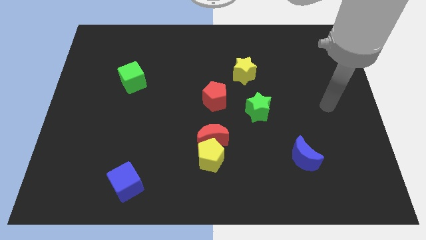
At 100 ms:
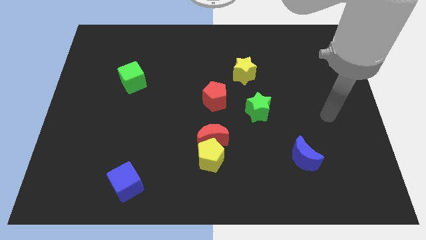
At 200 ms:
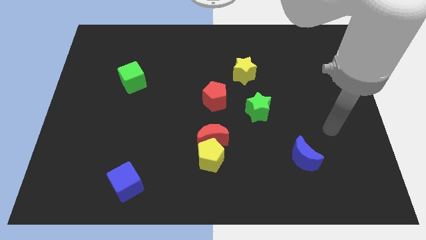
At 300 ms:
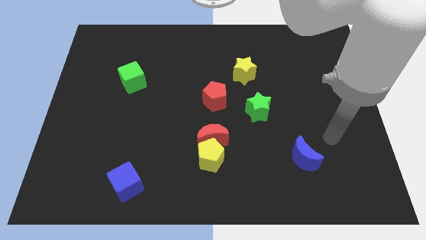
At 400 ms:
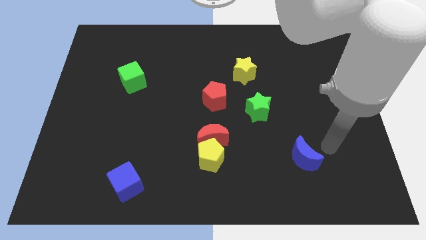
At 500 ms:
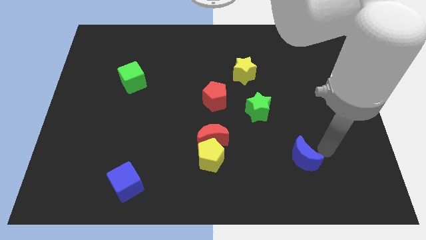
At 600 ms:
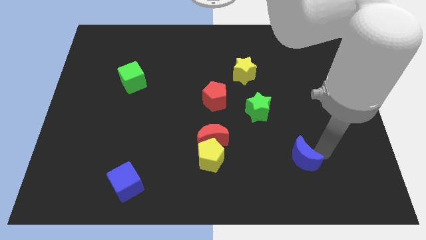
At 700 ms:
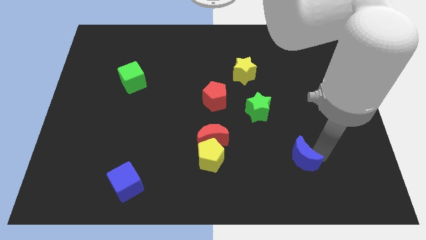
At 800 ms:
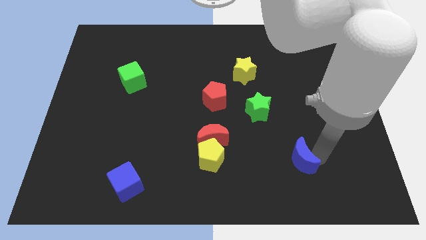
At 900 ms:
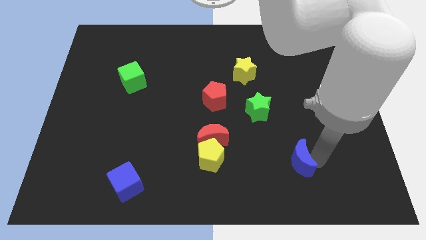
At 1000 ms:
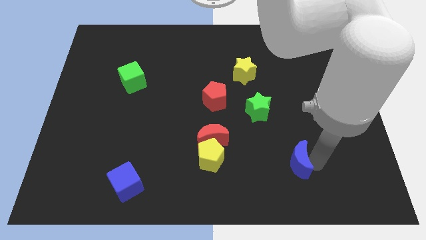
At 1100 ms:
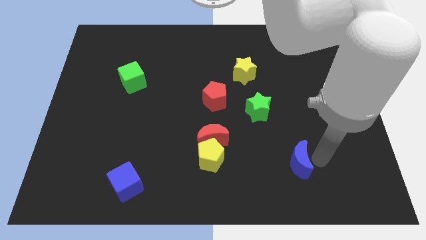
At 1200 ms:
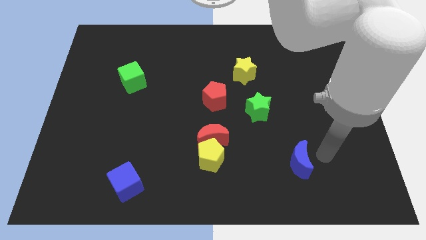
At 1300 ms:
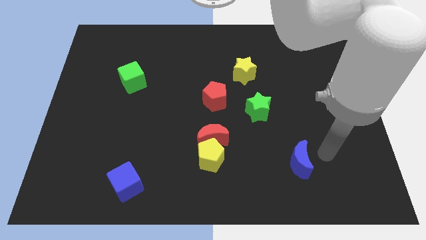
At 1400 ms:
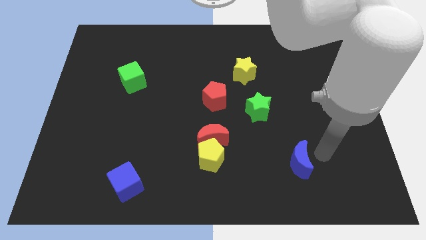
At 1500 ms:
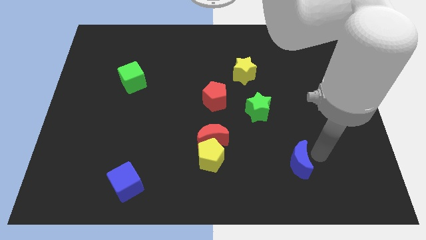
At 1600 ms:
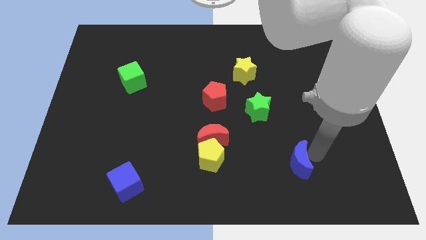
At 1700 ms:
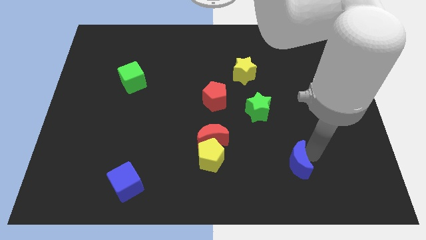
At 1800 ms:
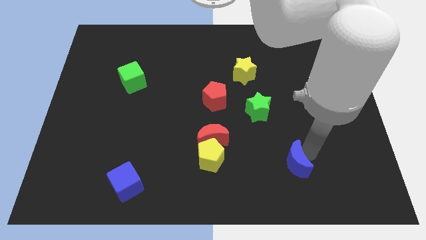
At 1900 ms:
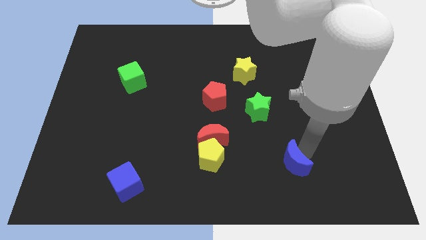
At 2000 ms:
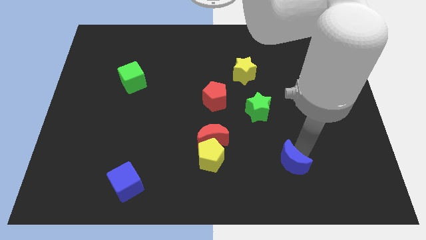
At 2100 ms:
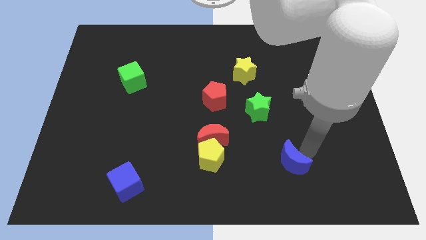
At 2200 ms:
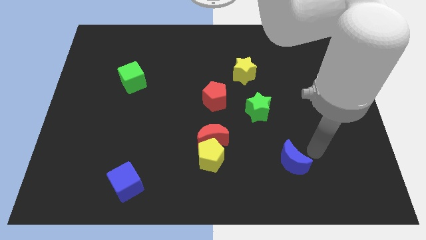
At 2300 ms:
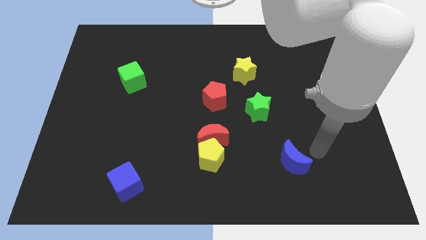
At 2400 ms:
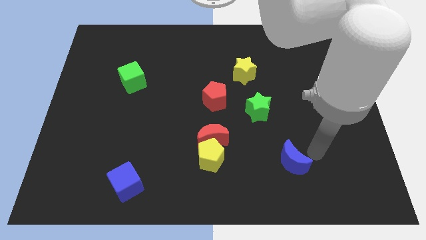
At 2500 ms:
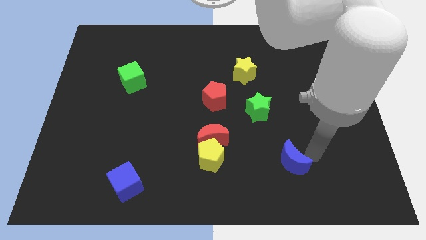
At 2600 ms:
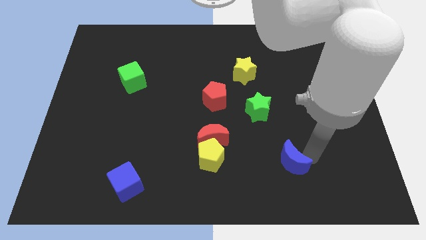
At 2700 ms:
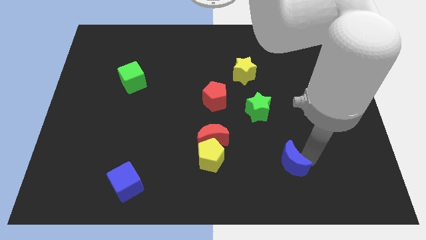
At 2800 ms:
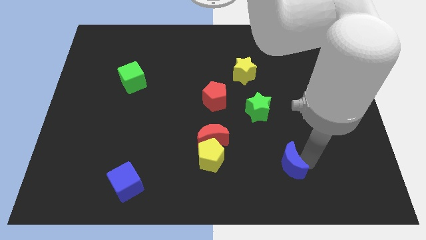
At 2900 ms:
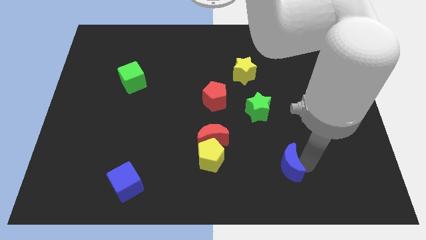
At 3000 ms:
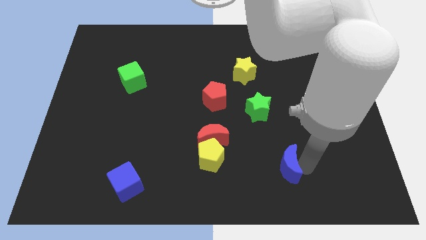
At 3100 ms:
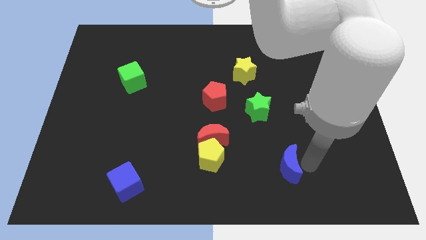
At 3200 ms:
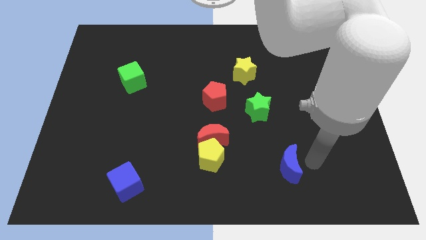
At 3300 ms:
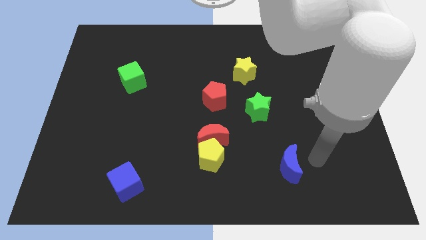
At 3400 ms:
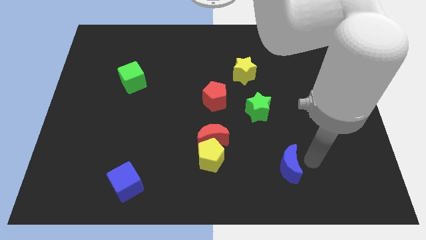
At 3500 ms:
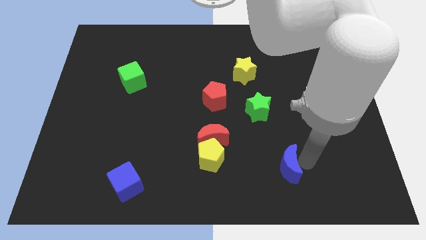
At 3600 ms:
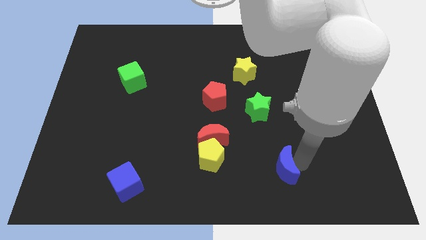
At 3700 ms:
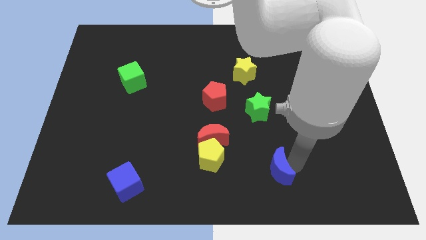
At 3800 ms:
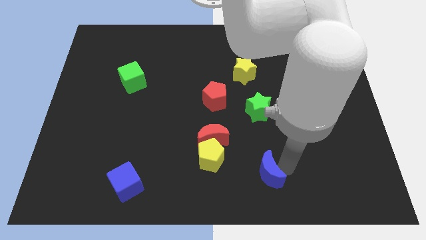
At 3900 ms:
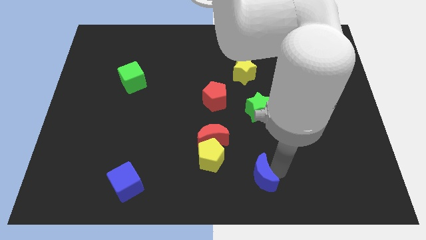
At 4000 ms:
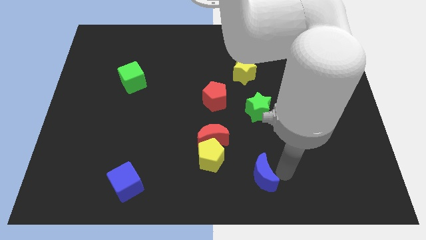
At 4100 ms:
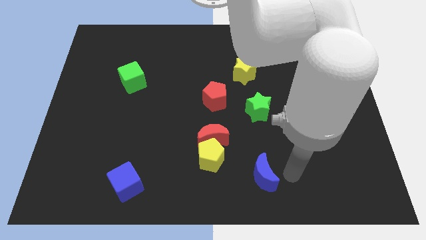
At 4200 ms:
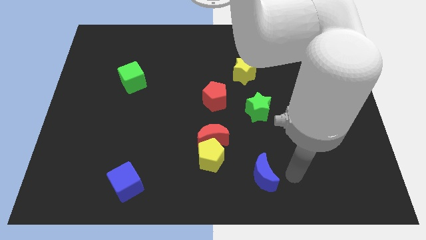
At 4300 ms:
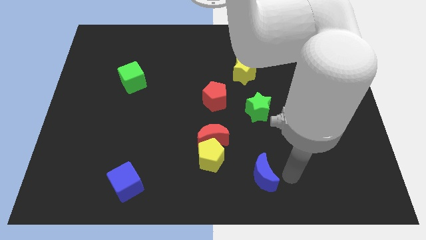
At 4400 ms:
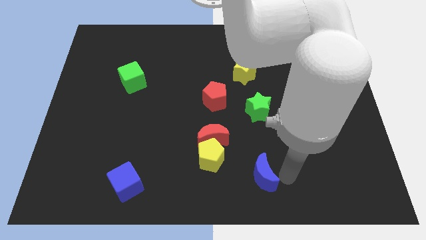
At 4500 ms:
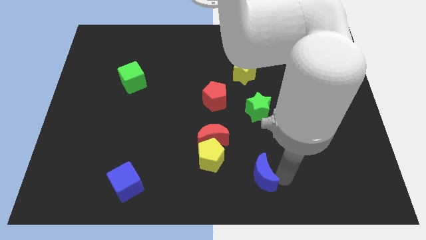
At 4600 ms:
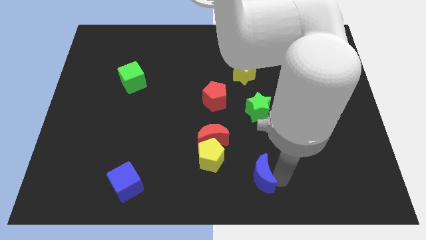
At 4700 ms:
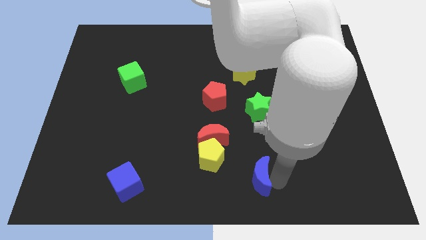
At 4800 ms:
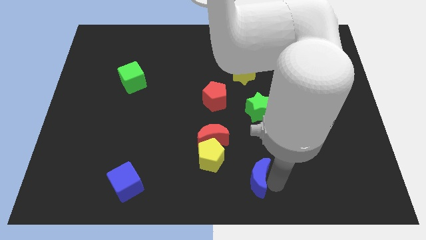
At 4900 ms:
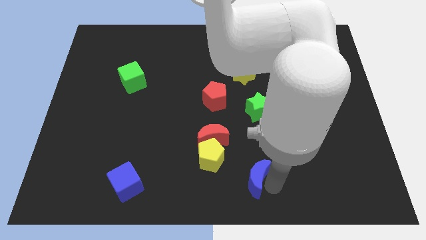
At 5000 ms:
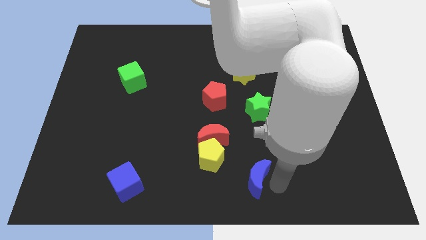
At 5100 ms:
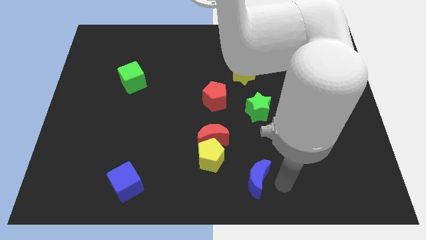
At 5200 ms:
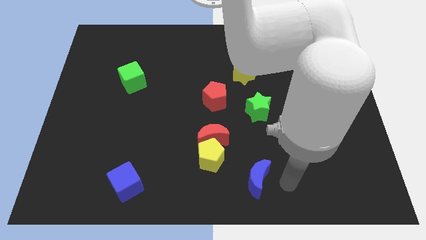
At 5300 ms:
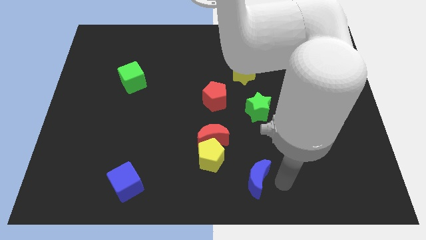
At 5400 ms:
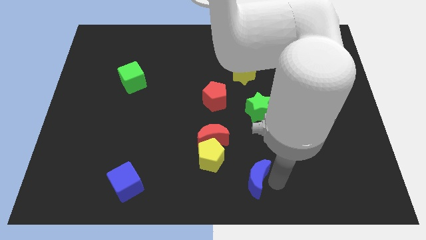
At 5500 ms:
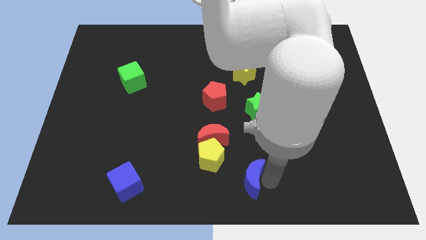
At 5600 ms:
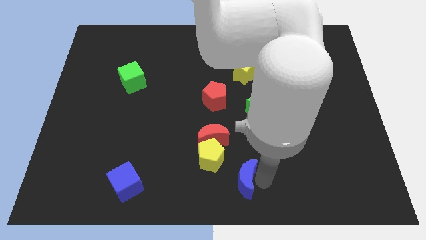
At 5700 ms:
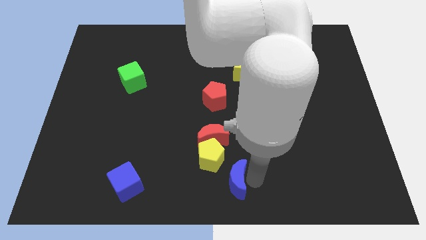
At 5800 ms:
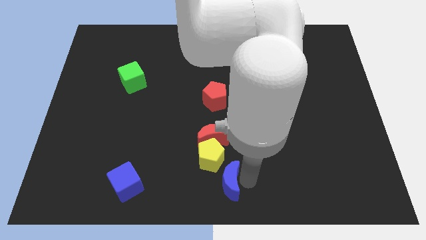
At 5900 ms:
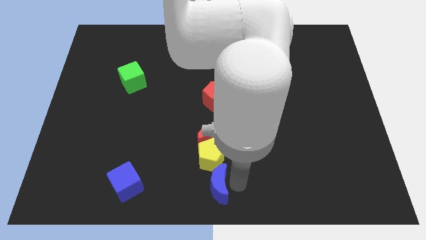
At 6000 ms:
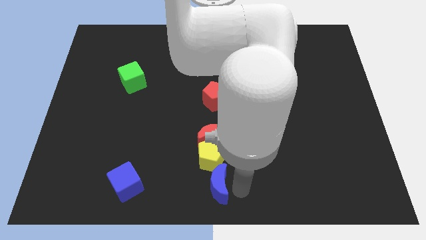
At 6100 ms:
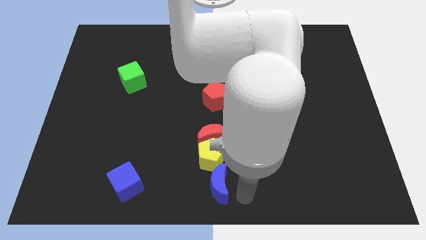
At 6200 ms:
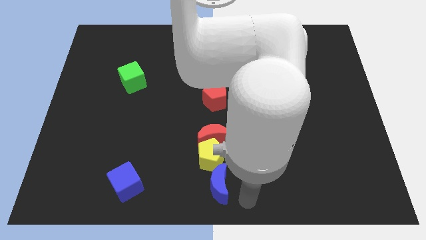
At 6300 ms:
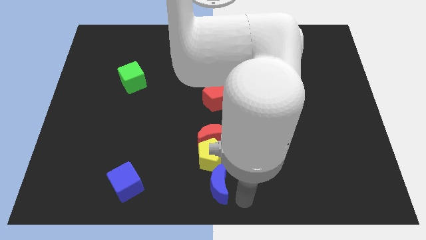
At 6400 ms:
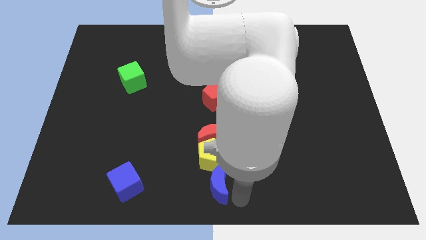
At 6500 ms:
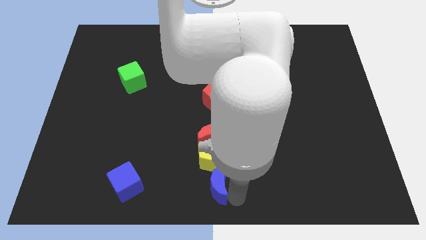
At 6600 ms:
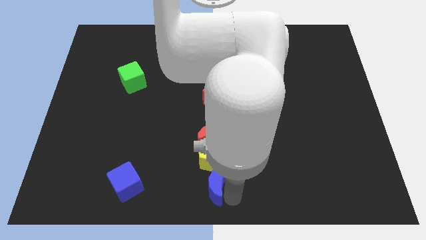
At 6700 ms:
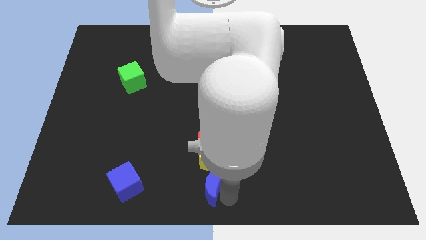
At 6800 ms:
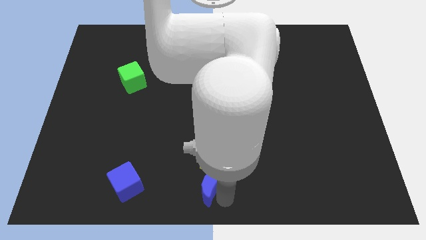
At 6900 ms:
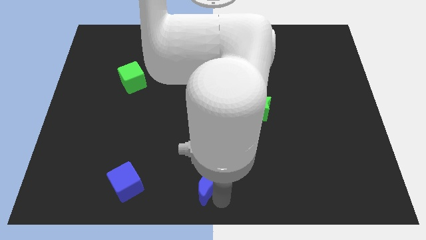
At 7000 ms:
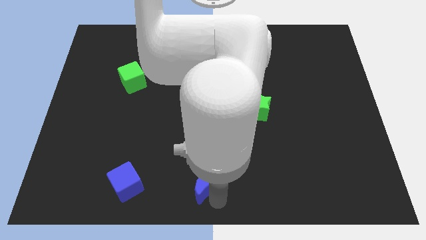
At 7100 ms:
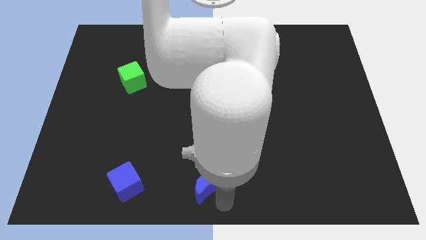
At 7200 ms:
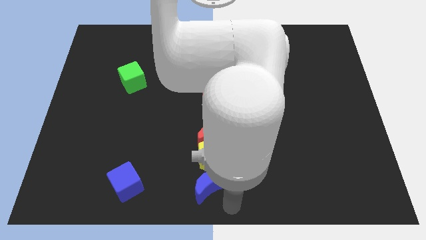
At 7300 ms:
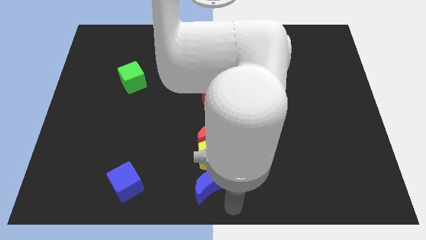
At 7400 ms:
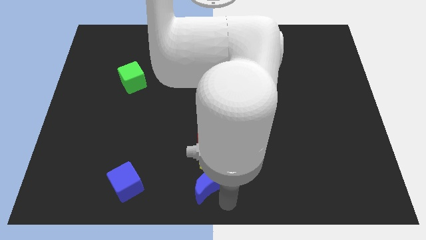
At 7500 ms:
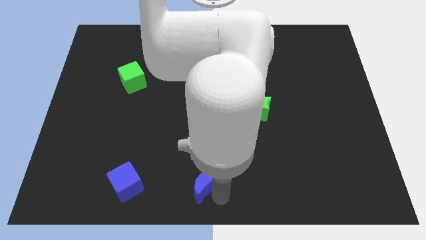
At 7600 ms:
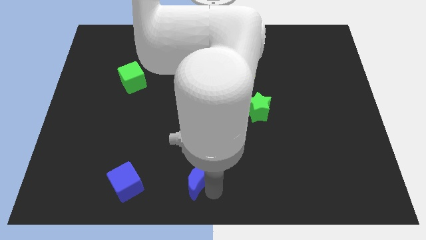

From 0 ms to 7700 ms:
slide the blue moon to the left

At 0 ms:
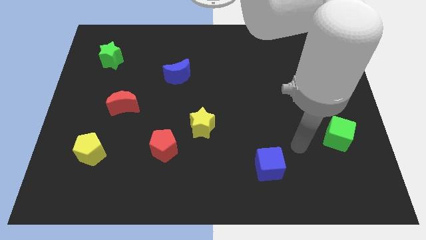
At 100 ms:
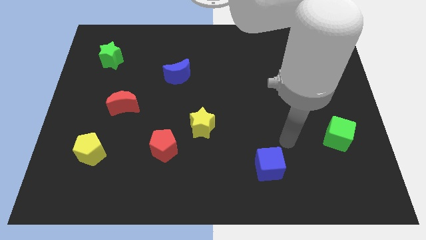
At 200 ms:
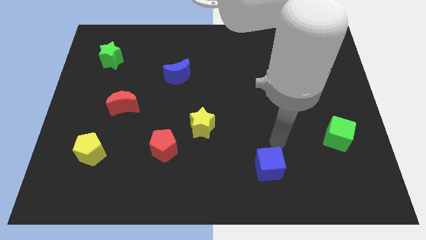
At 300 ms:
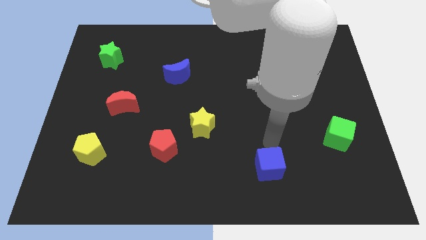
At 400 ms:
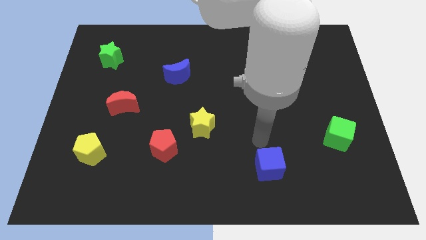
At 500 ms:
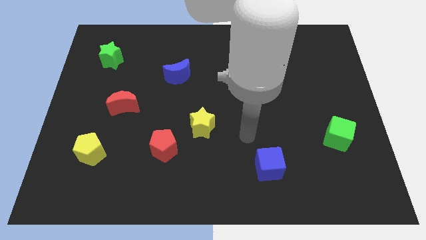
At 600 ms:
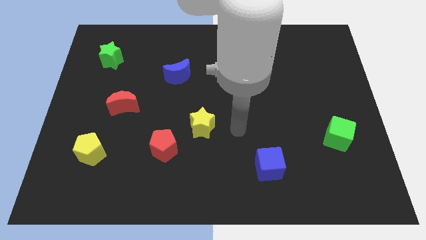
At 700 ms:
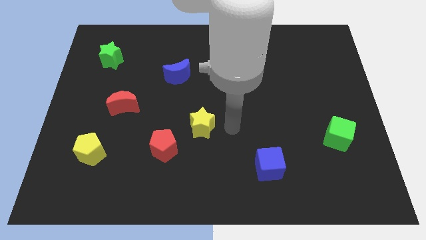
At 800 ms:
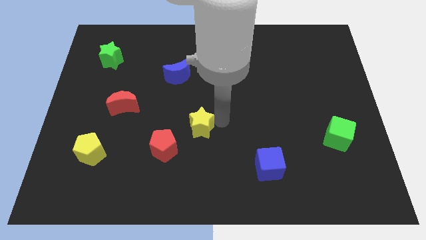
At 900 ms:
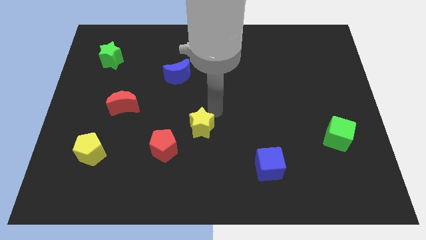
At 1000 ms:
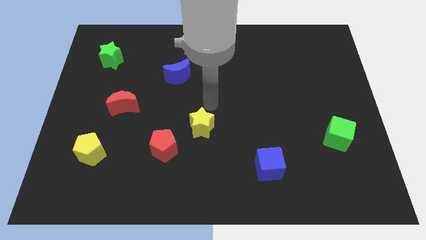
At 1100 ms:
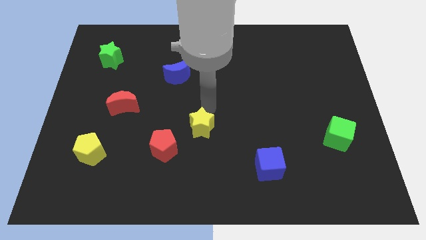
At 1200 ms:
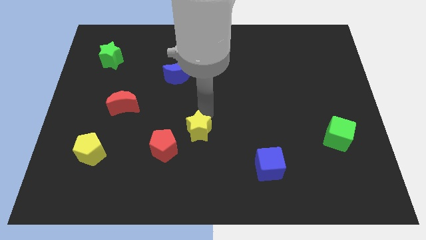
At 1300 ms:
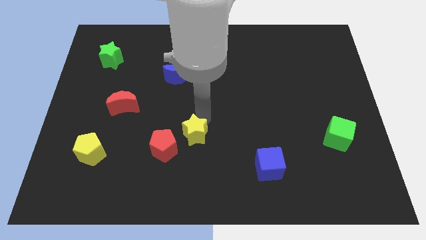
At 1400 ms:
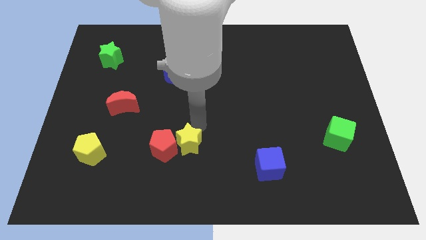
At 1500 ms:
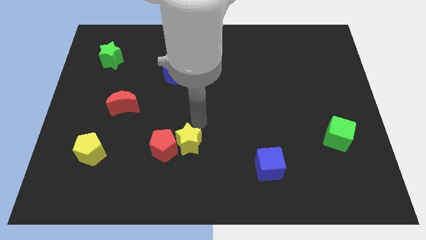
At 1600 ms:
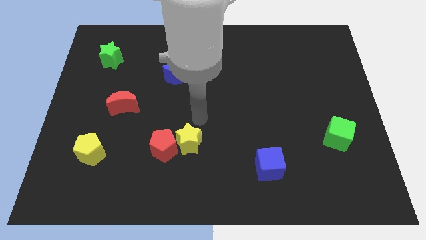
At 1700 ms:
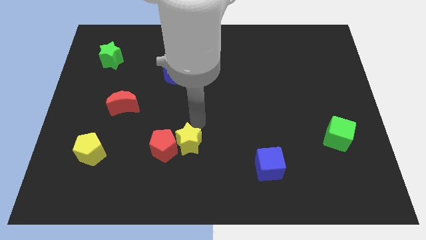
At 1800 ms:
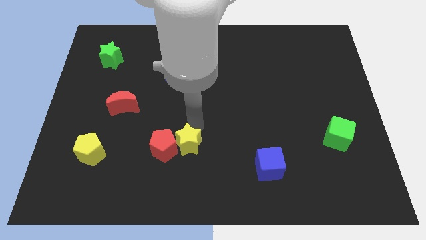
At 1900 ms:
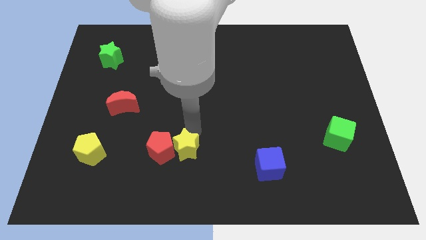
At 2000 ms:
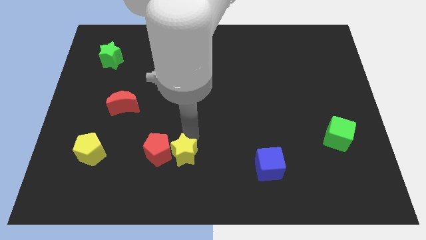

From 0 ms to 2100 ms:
slide the yellow star downwards and left diagonally a little
